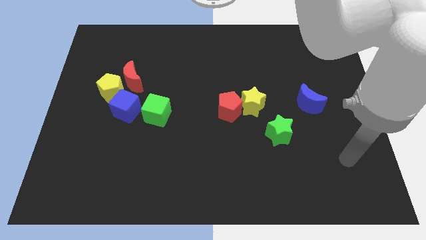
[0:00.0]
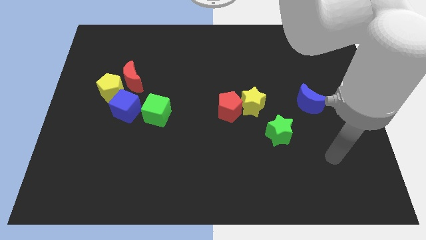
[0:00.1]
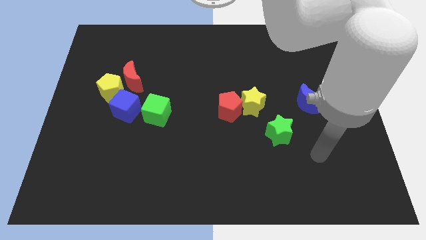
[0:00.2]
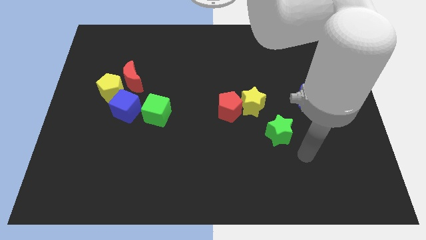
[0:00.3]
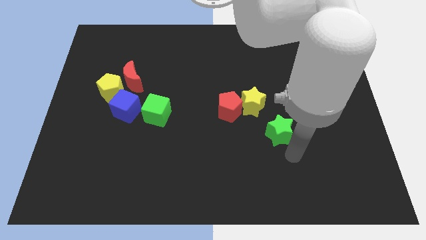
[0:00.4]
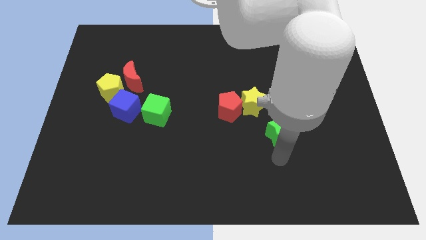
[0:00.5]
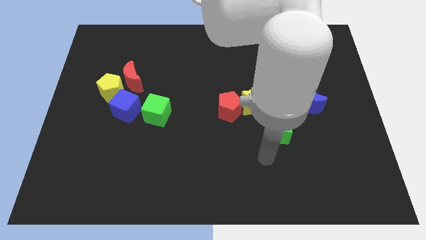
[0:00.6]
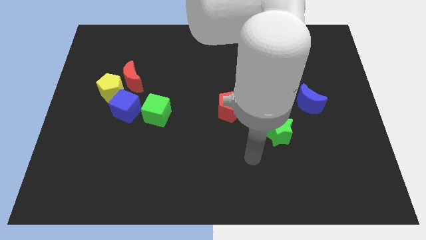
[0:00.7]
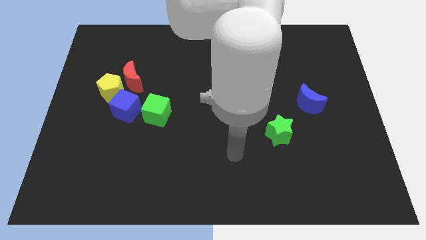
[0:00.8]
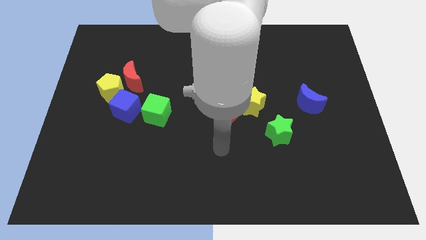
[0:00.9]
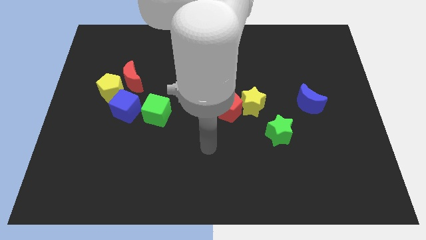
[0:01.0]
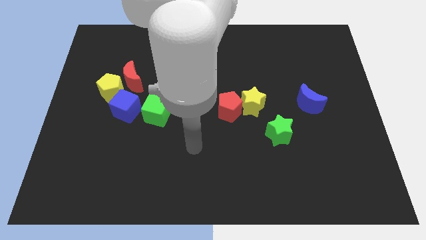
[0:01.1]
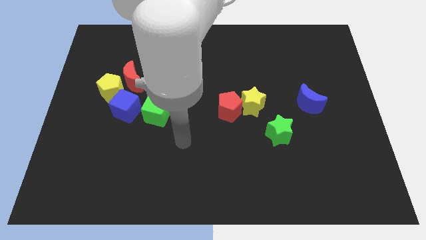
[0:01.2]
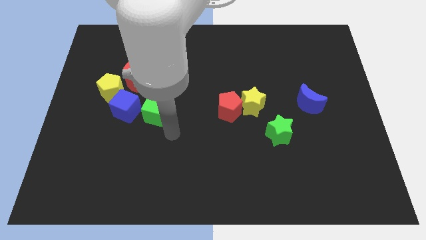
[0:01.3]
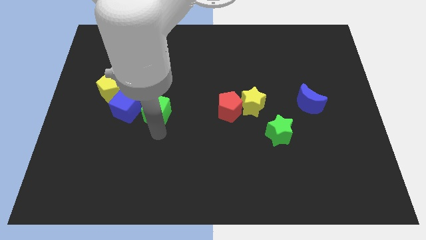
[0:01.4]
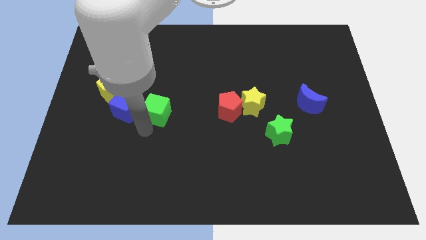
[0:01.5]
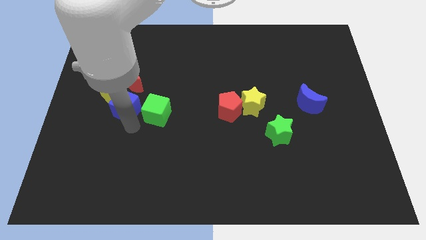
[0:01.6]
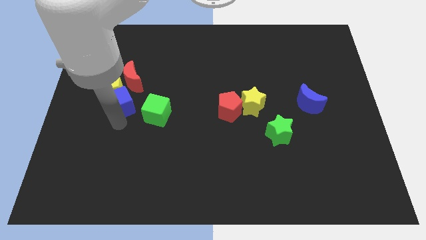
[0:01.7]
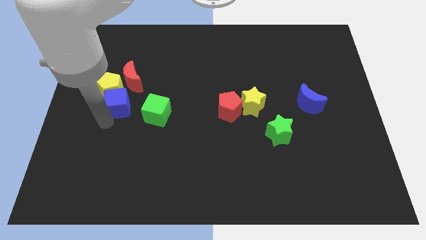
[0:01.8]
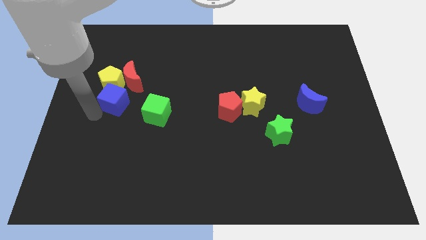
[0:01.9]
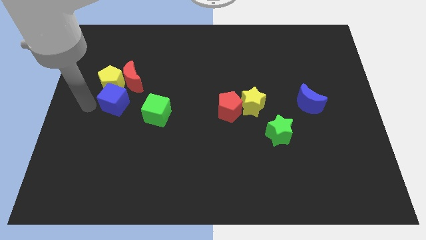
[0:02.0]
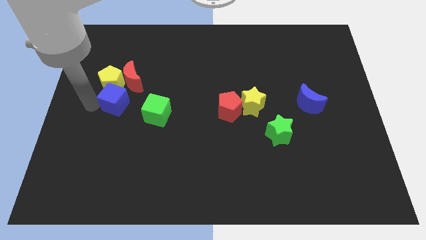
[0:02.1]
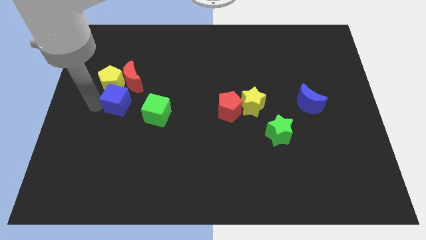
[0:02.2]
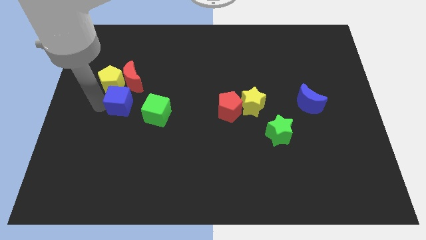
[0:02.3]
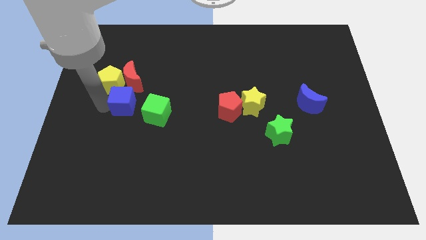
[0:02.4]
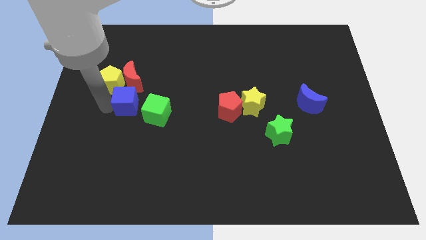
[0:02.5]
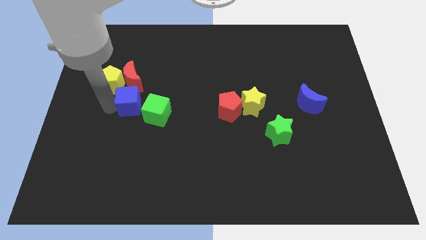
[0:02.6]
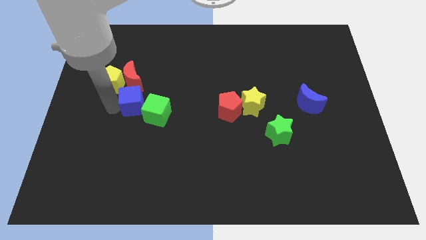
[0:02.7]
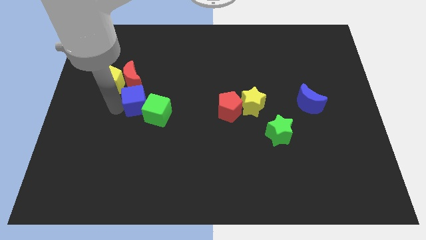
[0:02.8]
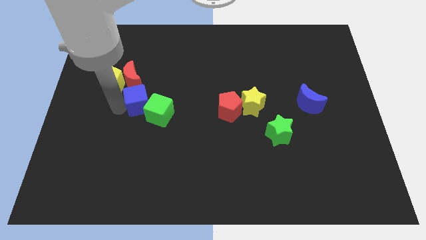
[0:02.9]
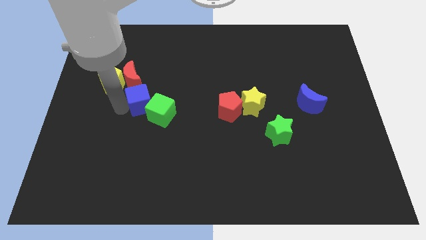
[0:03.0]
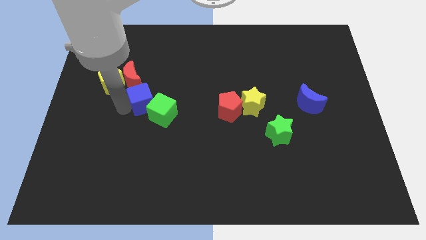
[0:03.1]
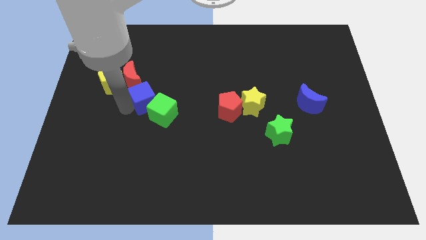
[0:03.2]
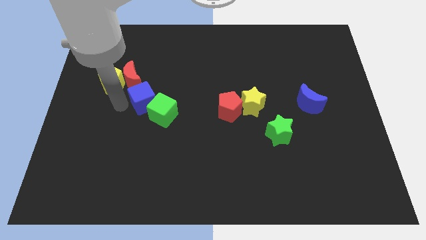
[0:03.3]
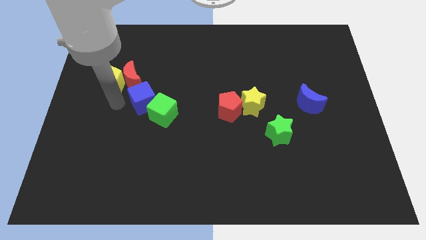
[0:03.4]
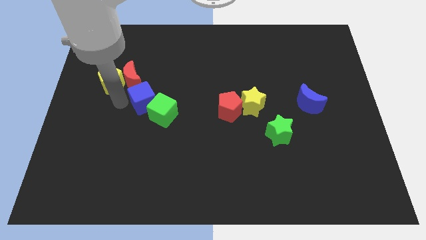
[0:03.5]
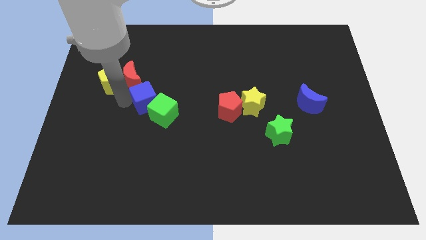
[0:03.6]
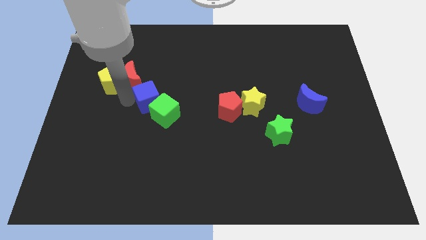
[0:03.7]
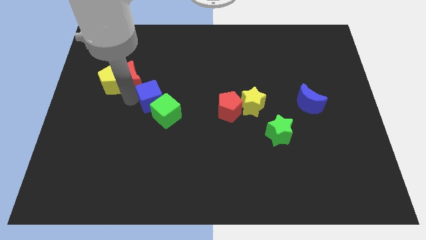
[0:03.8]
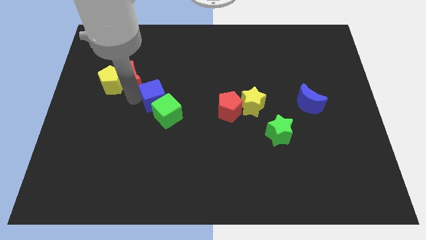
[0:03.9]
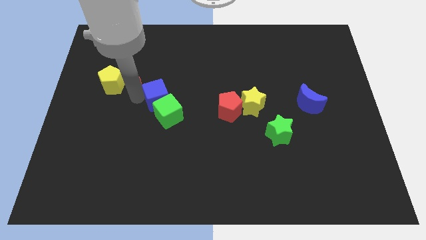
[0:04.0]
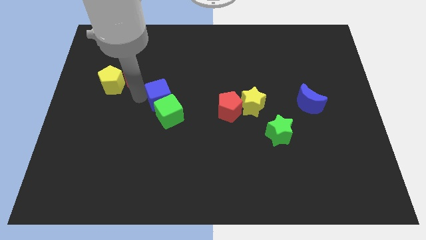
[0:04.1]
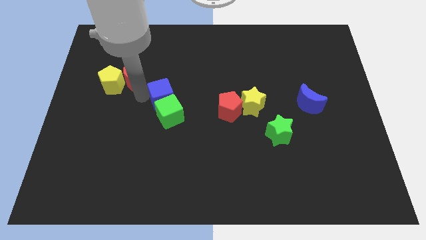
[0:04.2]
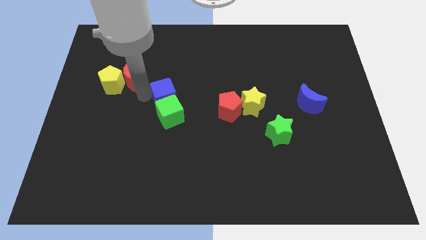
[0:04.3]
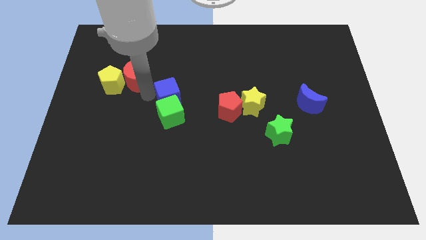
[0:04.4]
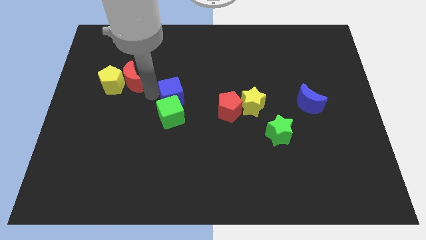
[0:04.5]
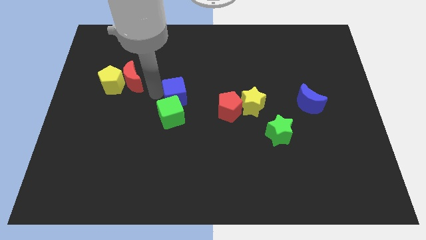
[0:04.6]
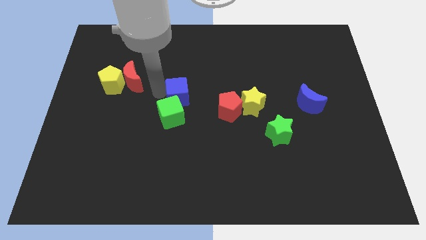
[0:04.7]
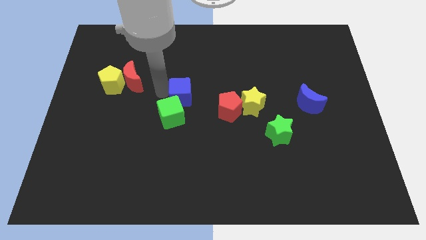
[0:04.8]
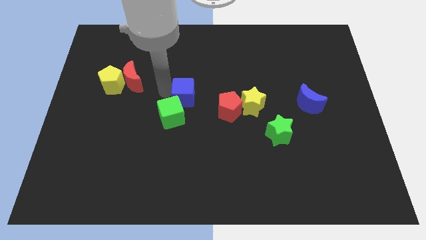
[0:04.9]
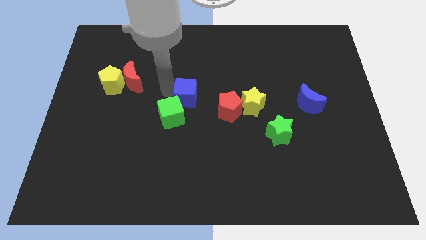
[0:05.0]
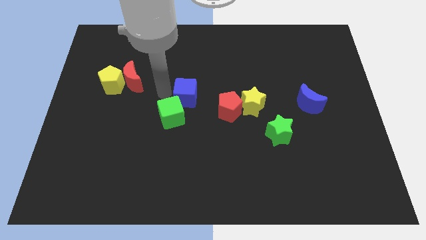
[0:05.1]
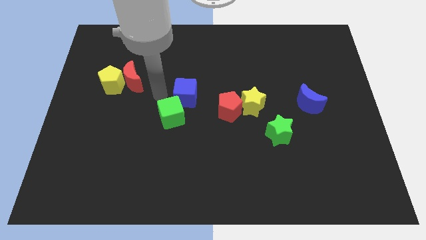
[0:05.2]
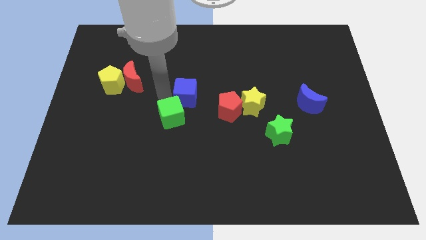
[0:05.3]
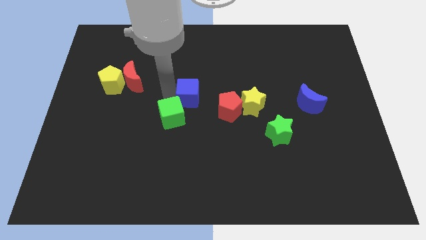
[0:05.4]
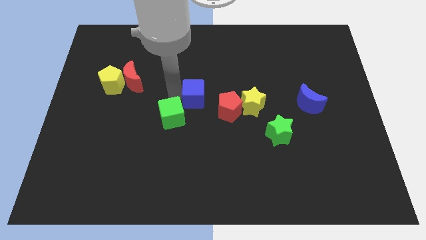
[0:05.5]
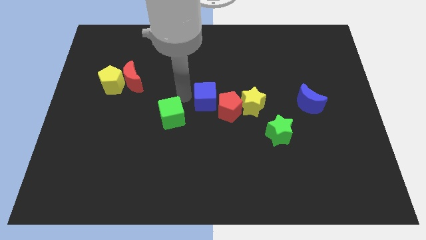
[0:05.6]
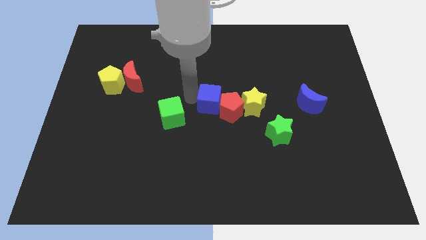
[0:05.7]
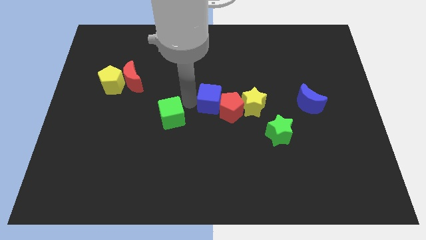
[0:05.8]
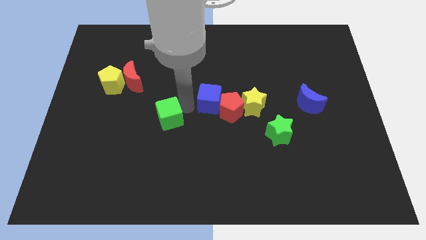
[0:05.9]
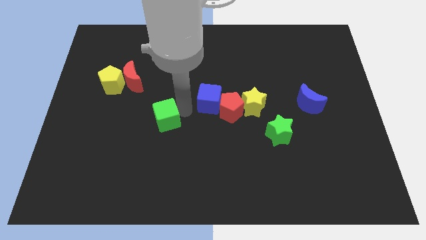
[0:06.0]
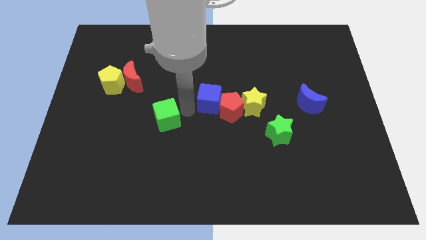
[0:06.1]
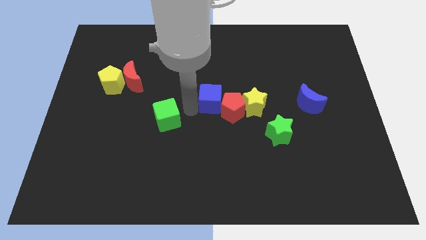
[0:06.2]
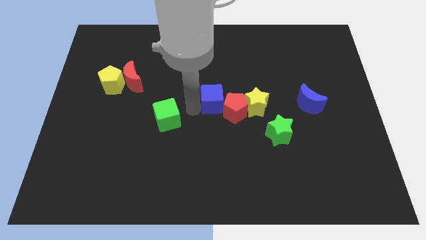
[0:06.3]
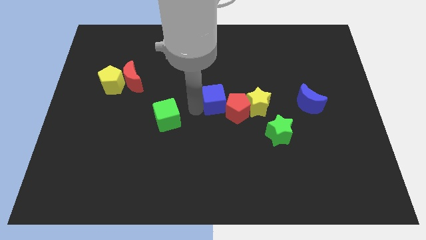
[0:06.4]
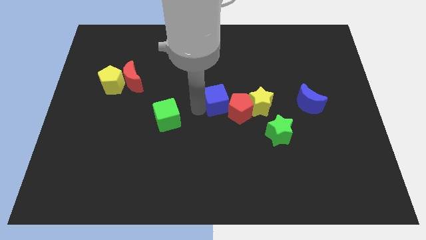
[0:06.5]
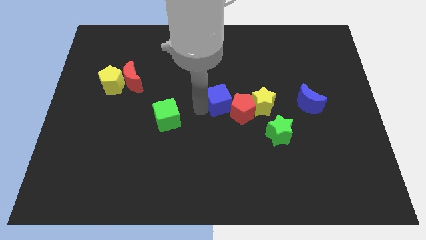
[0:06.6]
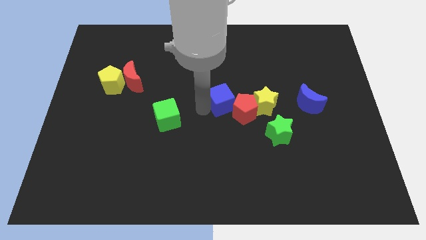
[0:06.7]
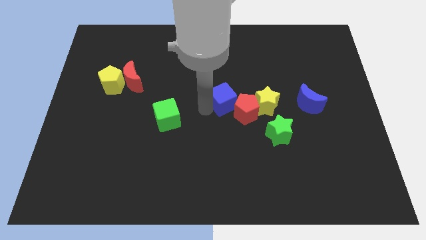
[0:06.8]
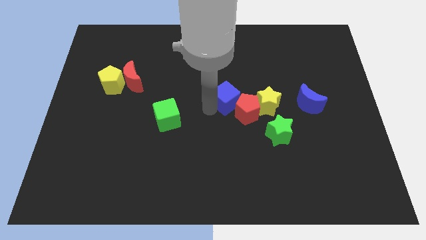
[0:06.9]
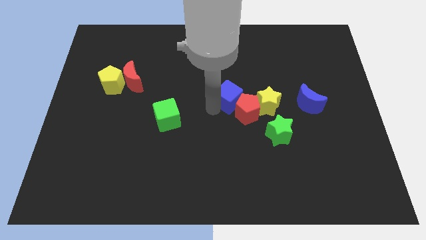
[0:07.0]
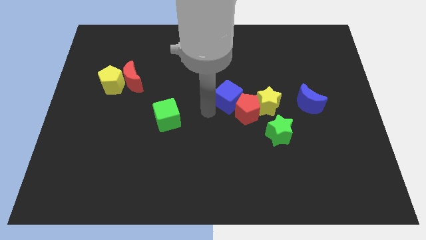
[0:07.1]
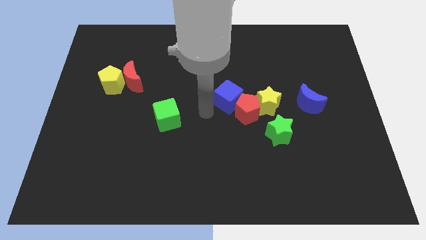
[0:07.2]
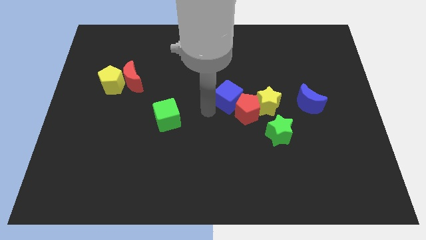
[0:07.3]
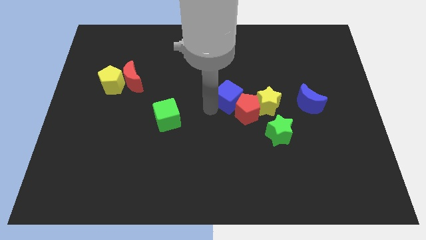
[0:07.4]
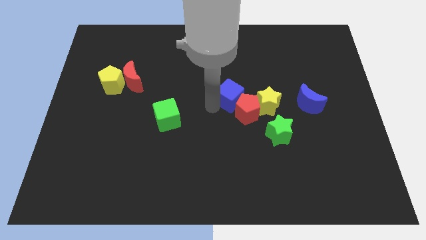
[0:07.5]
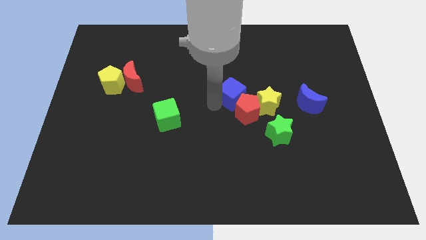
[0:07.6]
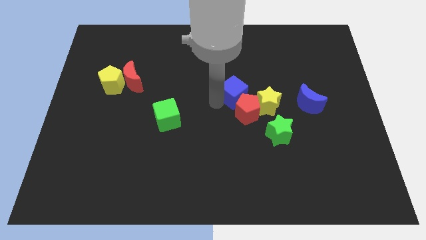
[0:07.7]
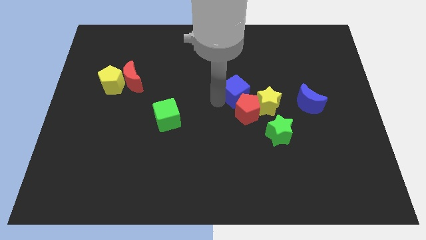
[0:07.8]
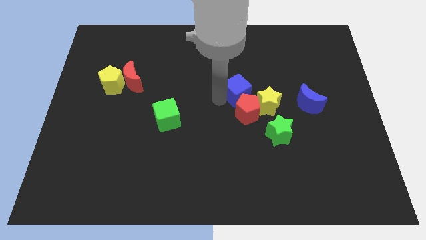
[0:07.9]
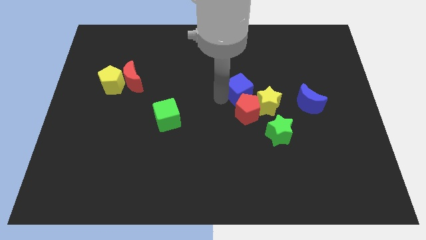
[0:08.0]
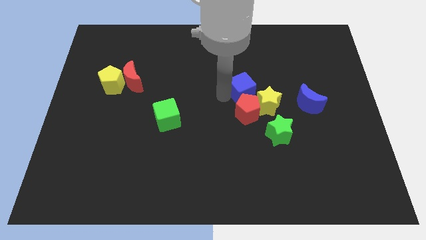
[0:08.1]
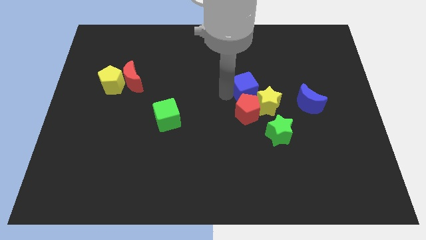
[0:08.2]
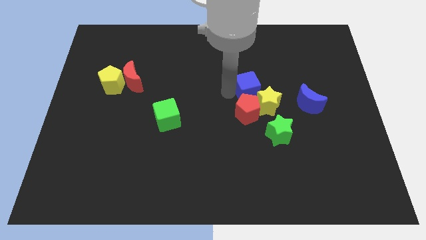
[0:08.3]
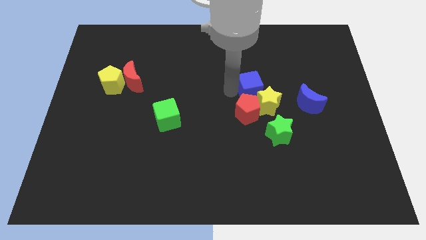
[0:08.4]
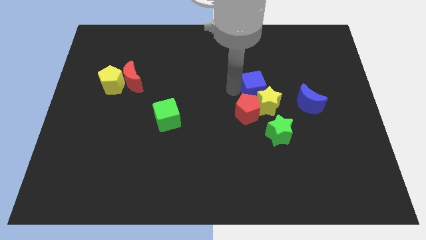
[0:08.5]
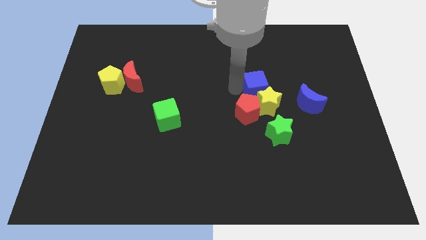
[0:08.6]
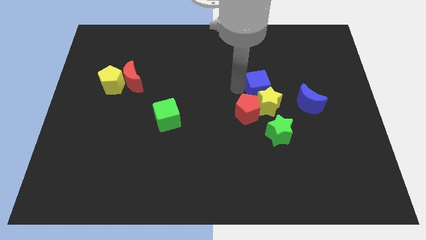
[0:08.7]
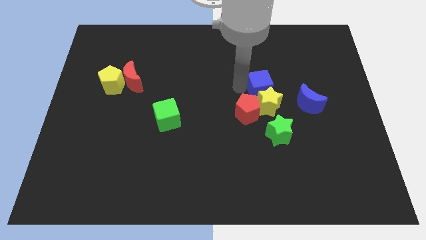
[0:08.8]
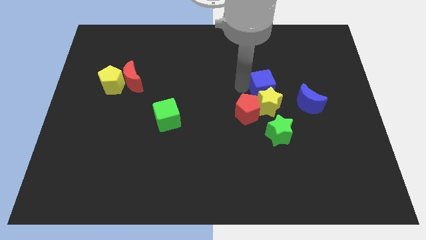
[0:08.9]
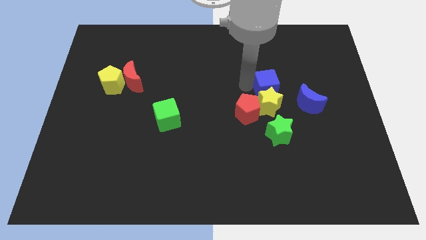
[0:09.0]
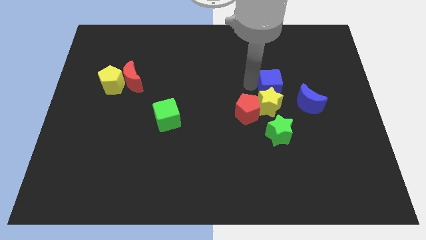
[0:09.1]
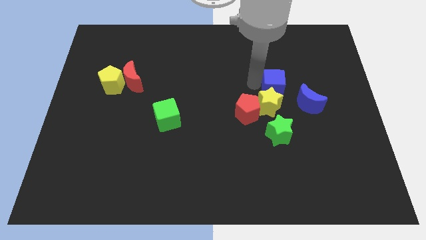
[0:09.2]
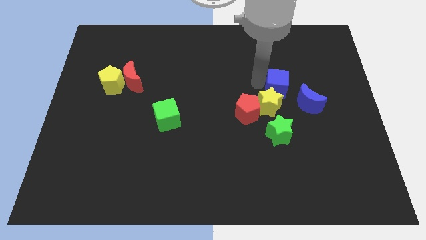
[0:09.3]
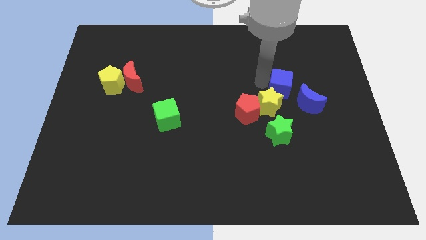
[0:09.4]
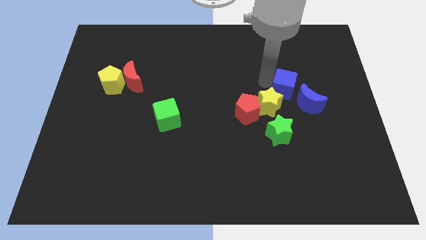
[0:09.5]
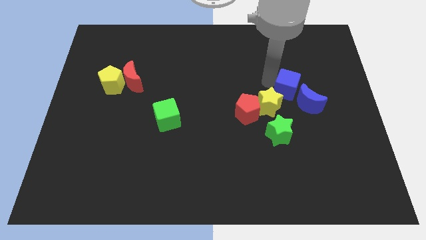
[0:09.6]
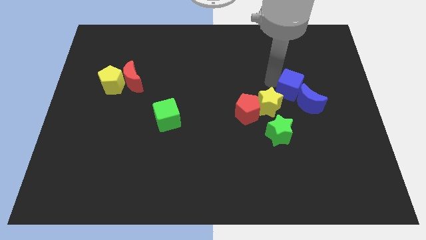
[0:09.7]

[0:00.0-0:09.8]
push the blue cube towards the blue moon
